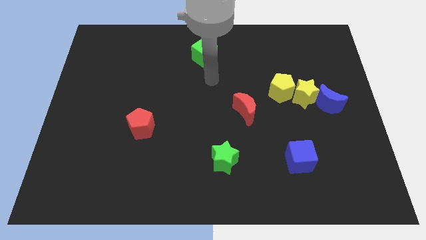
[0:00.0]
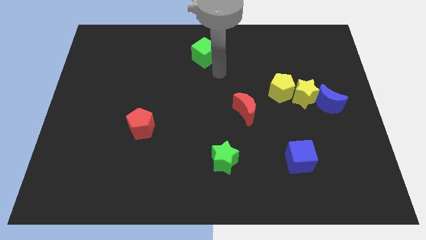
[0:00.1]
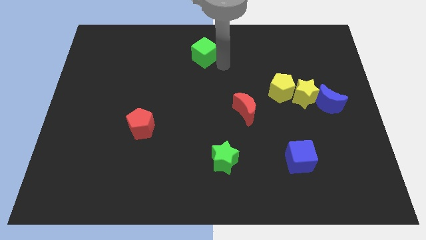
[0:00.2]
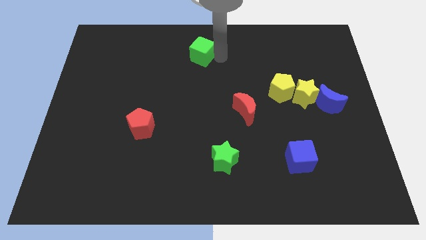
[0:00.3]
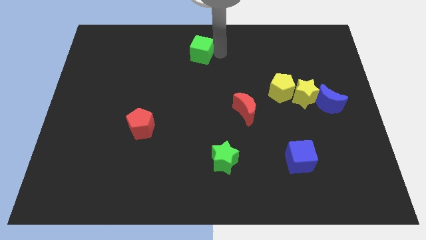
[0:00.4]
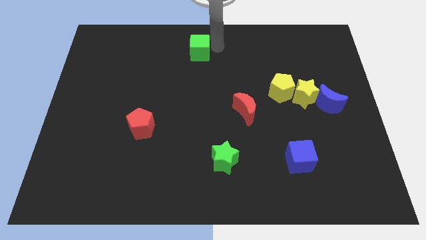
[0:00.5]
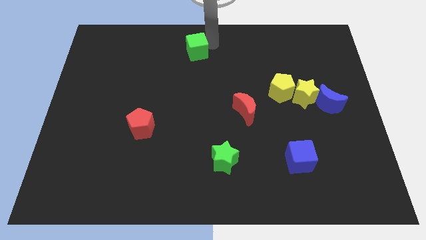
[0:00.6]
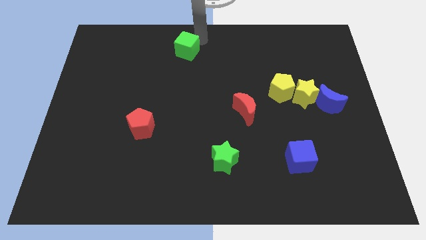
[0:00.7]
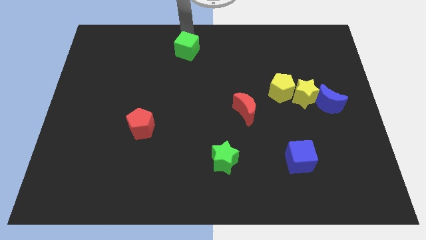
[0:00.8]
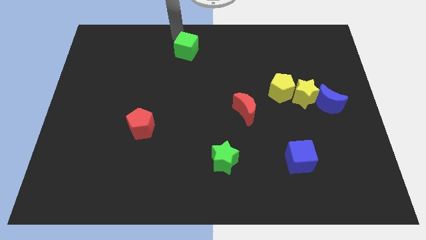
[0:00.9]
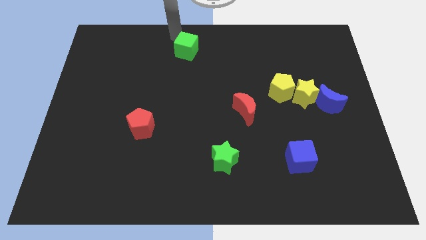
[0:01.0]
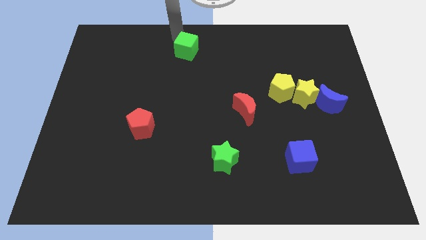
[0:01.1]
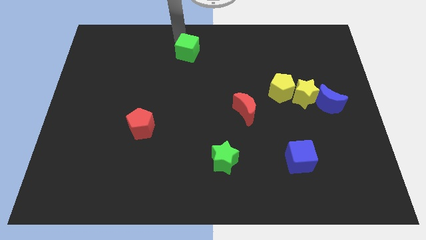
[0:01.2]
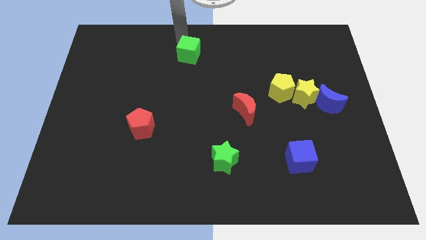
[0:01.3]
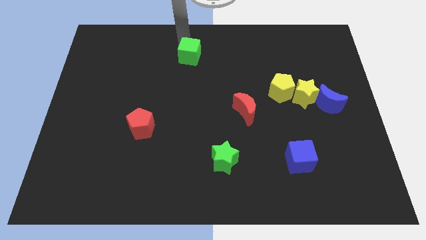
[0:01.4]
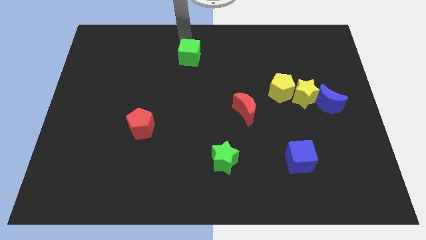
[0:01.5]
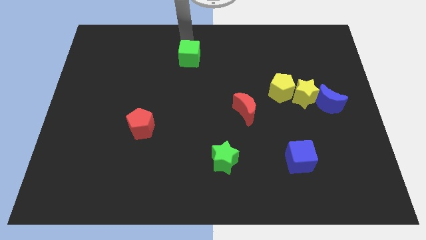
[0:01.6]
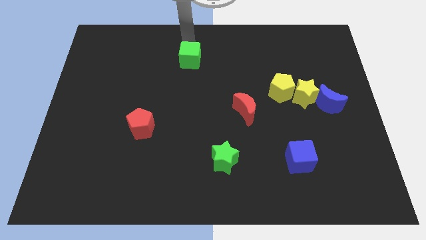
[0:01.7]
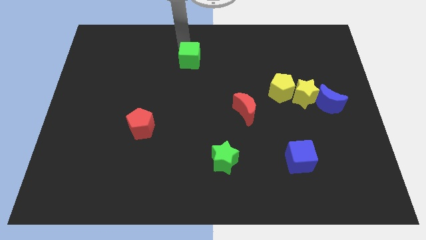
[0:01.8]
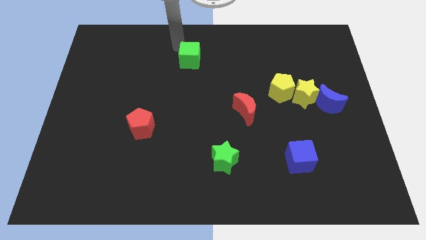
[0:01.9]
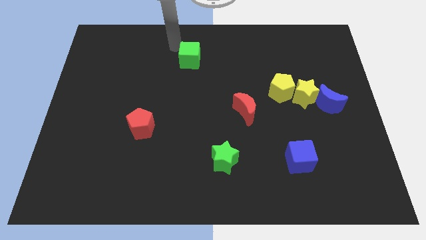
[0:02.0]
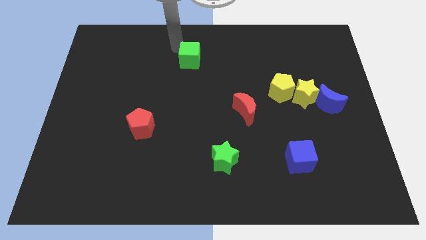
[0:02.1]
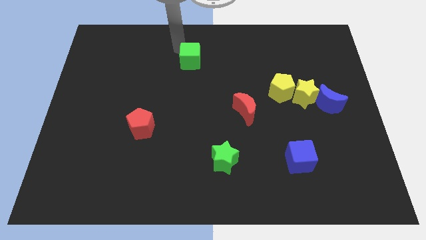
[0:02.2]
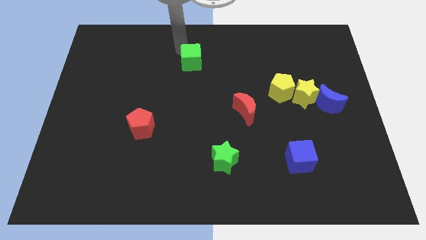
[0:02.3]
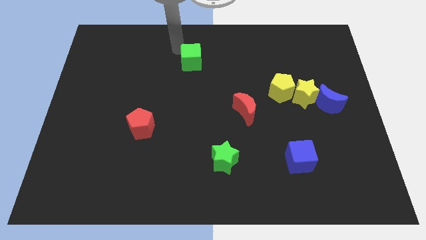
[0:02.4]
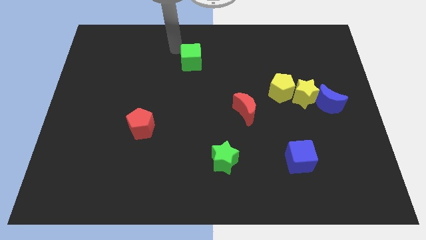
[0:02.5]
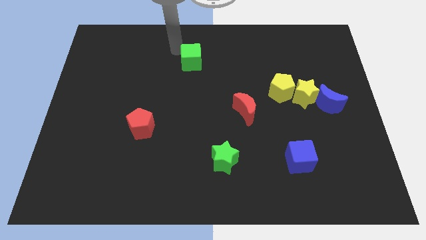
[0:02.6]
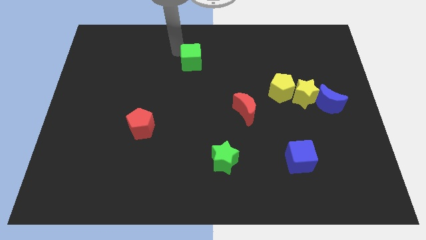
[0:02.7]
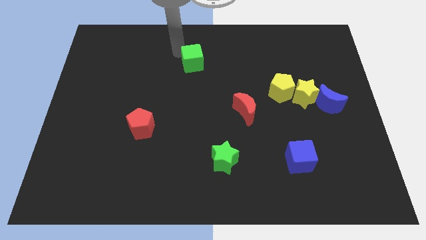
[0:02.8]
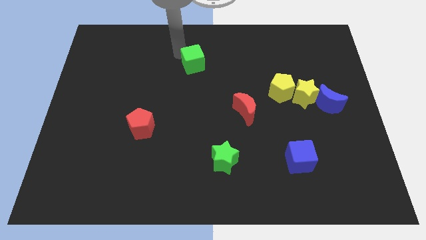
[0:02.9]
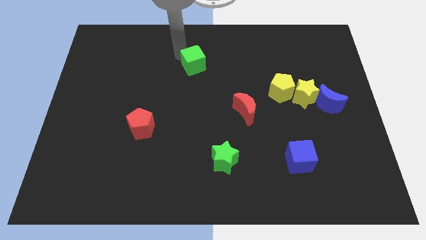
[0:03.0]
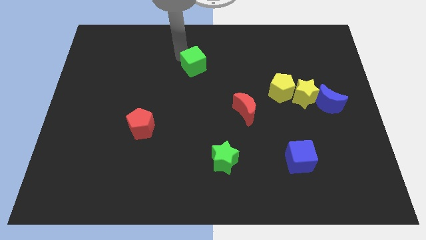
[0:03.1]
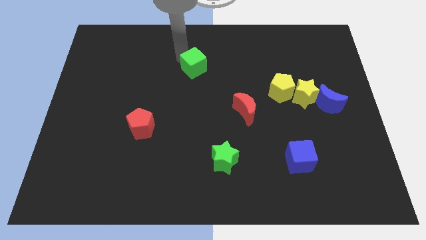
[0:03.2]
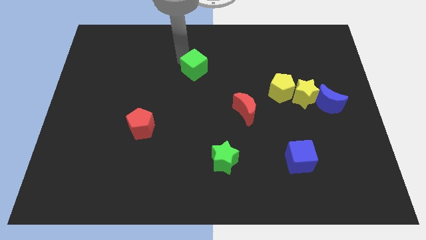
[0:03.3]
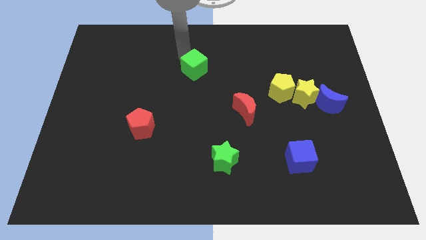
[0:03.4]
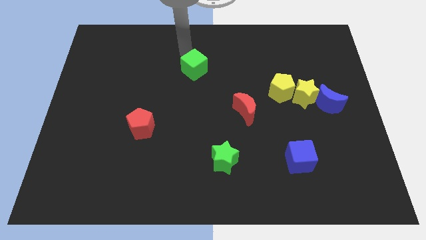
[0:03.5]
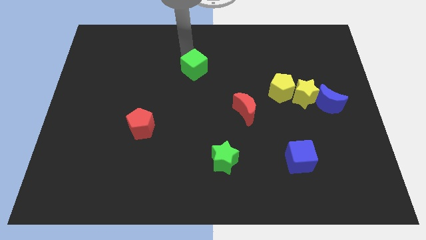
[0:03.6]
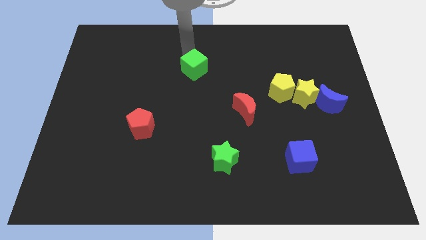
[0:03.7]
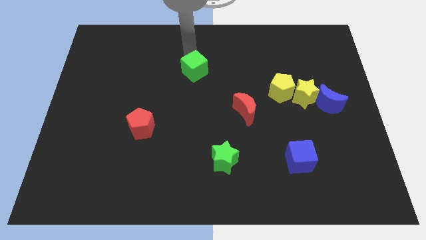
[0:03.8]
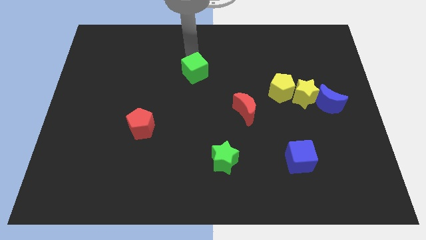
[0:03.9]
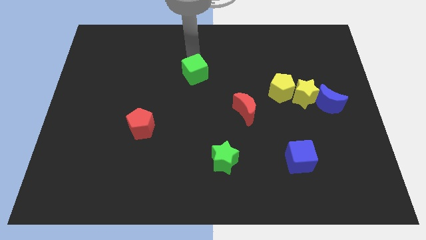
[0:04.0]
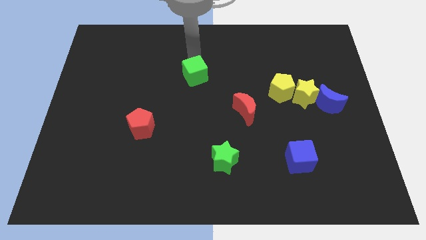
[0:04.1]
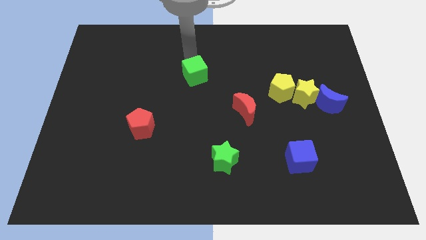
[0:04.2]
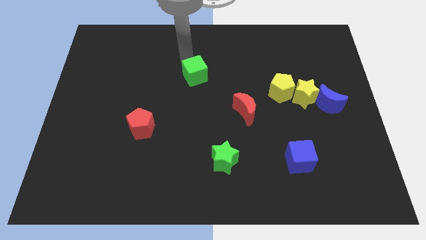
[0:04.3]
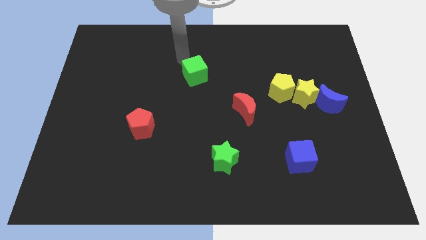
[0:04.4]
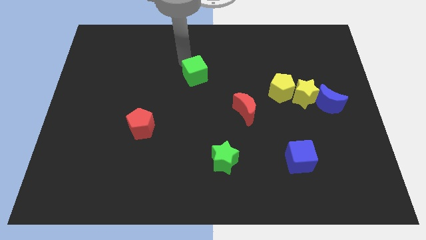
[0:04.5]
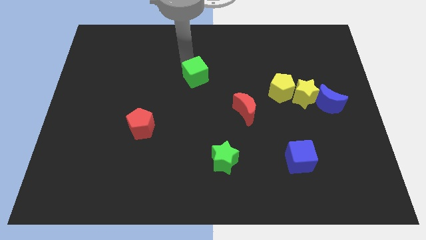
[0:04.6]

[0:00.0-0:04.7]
slide the green cube a little down

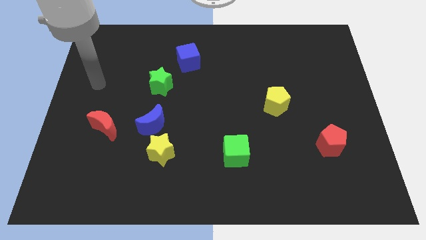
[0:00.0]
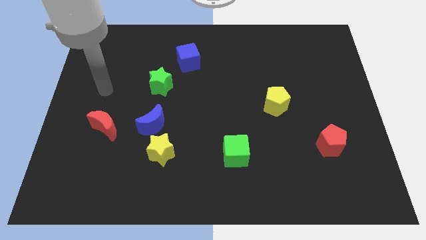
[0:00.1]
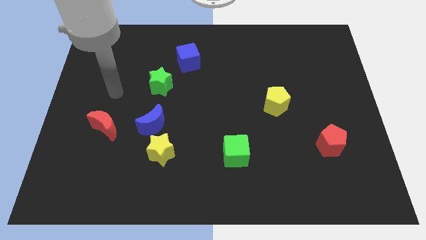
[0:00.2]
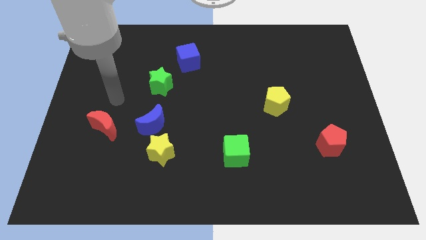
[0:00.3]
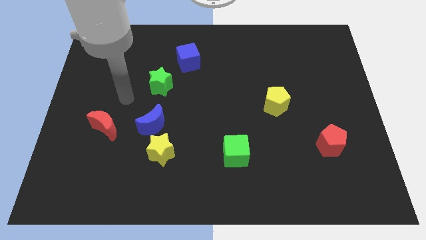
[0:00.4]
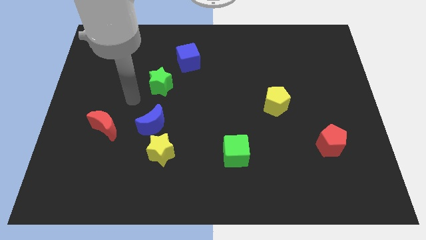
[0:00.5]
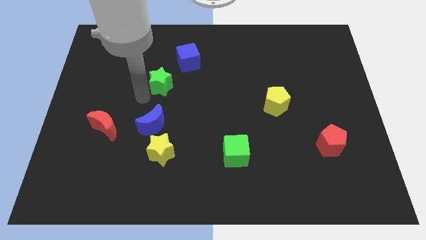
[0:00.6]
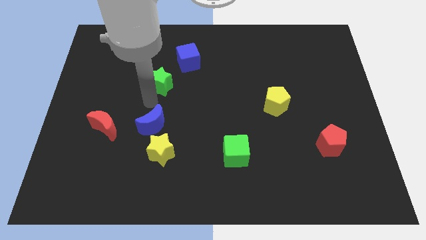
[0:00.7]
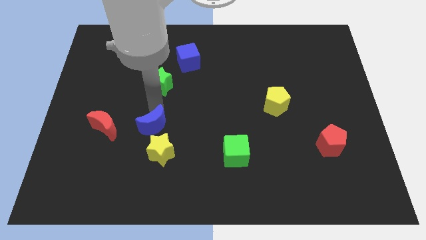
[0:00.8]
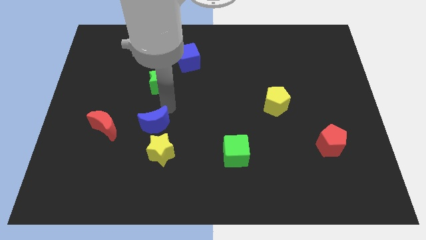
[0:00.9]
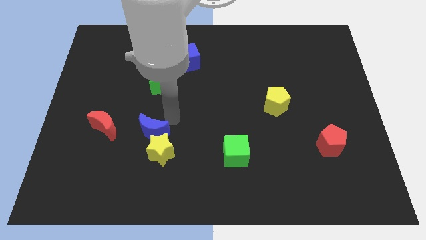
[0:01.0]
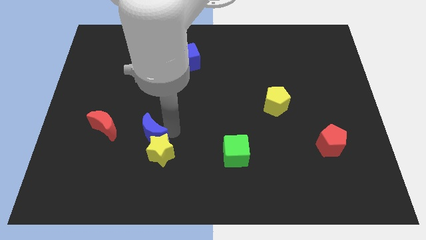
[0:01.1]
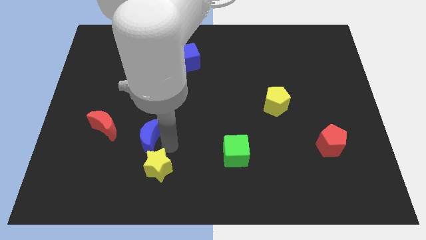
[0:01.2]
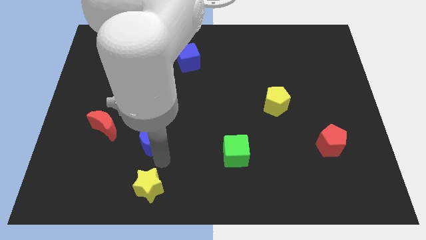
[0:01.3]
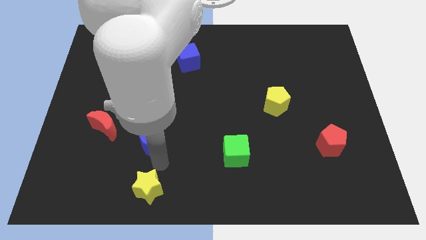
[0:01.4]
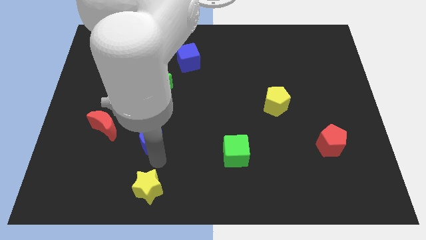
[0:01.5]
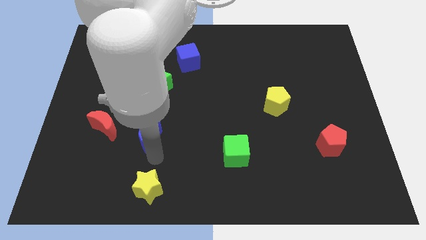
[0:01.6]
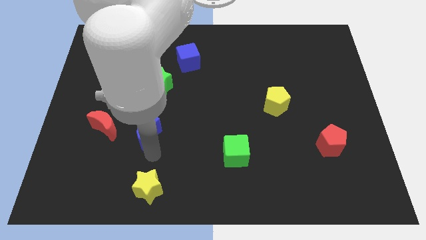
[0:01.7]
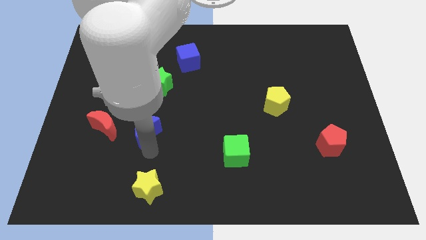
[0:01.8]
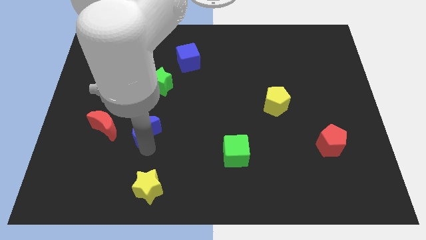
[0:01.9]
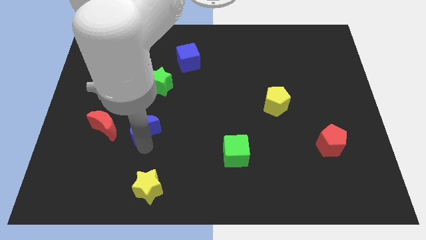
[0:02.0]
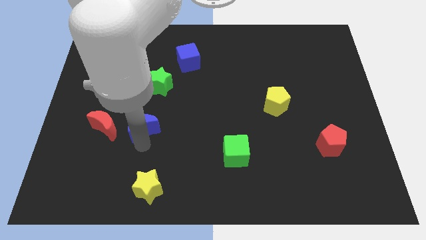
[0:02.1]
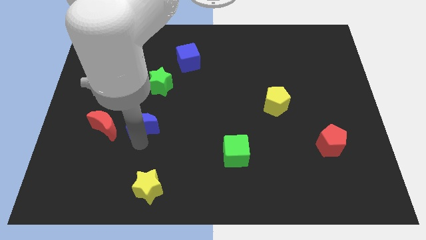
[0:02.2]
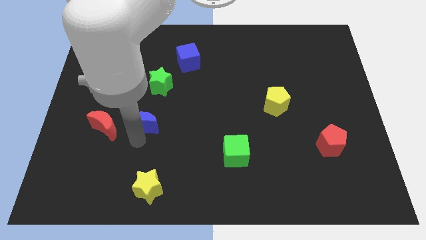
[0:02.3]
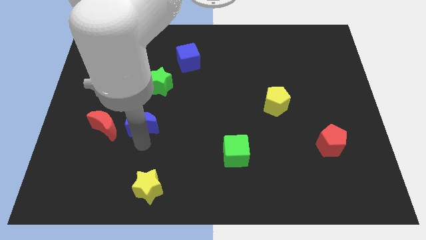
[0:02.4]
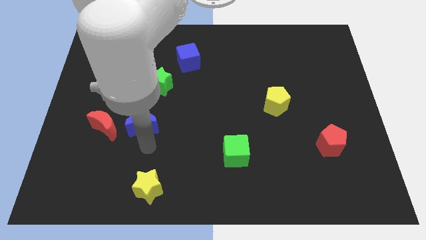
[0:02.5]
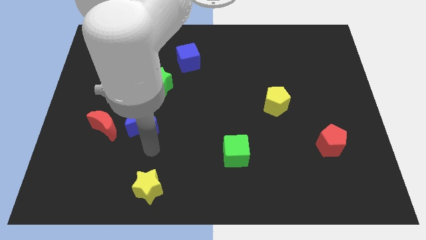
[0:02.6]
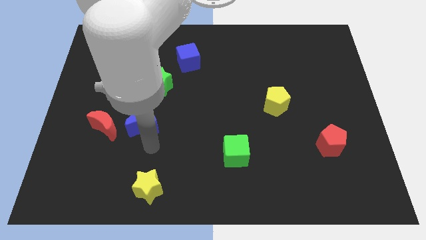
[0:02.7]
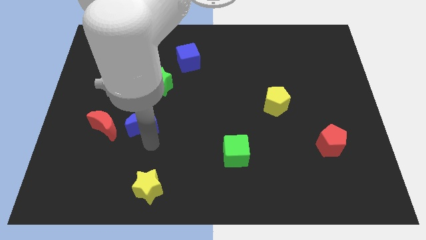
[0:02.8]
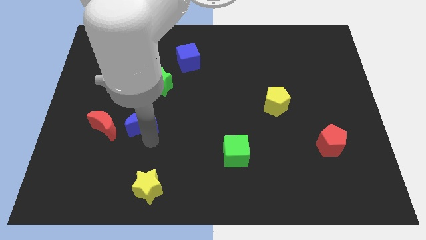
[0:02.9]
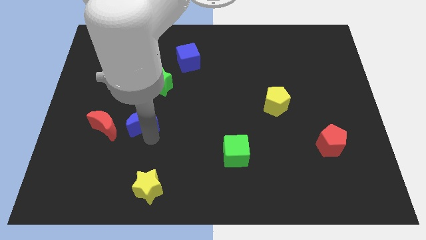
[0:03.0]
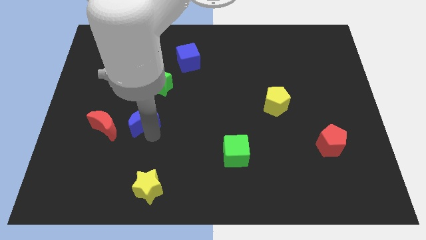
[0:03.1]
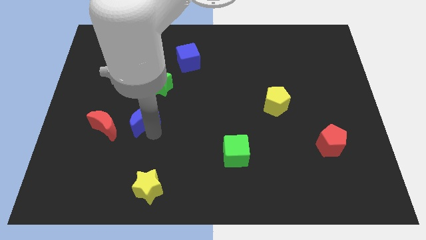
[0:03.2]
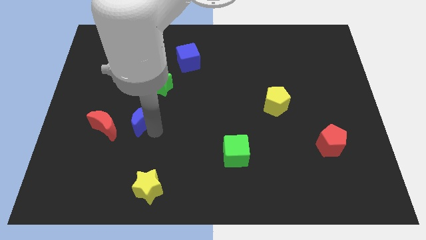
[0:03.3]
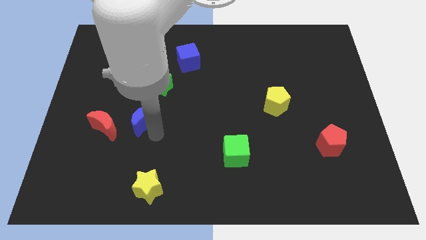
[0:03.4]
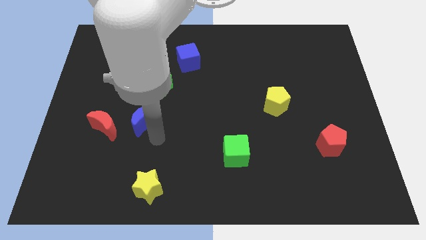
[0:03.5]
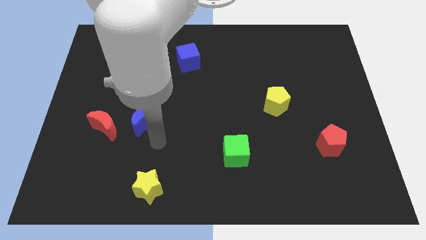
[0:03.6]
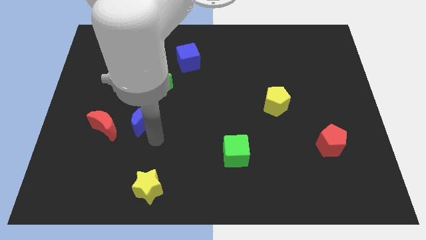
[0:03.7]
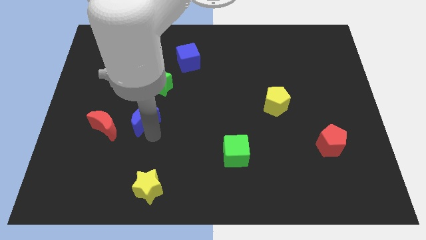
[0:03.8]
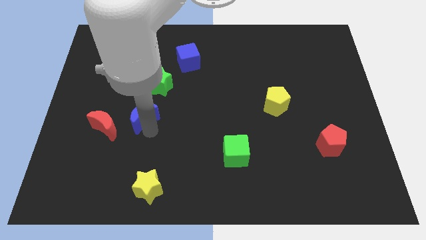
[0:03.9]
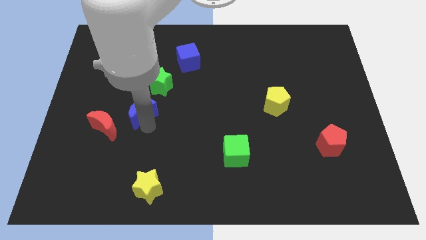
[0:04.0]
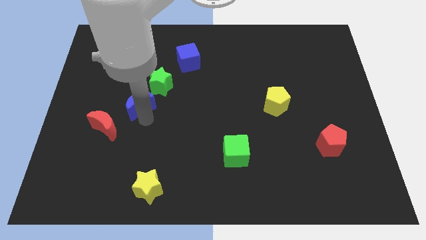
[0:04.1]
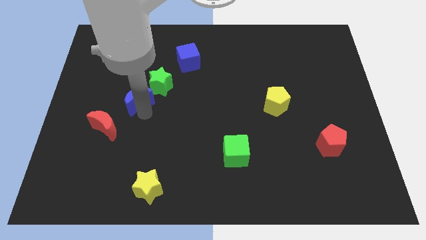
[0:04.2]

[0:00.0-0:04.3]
slightly push the blue moon up and then to the left
